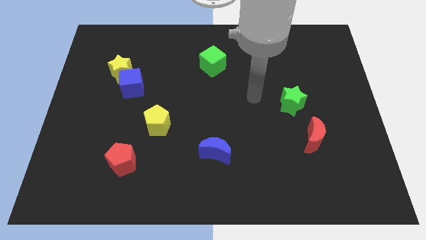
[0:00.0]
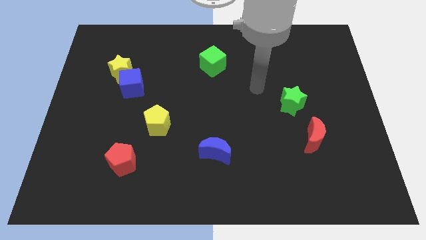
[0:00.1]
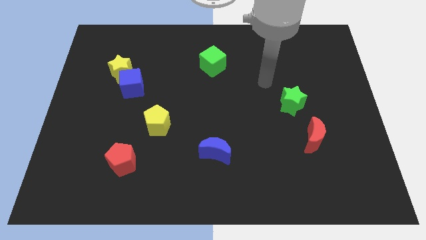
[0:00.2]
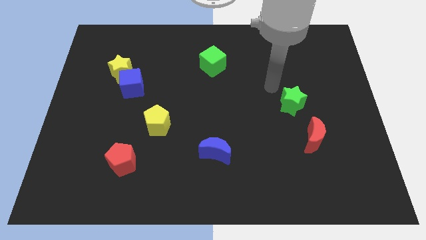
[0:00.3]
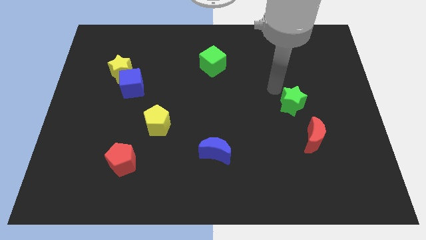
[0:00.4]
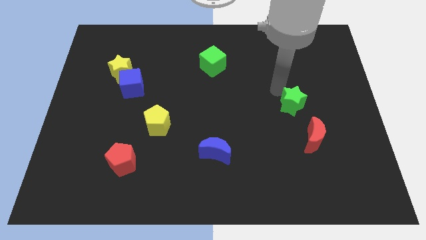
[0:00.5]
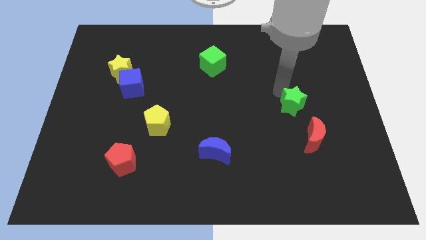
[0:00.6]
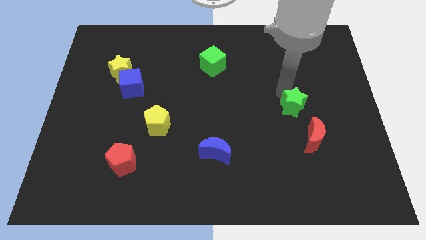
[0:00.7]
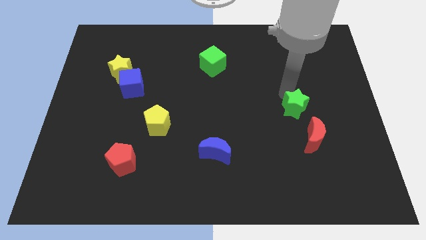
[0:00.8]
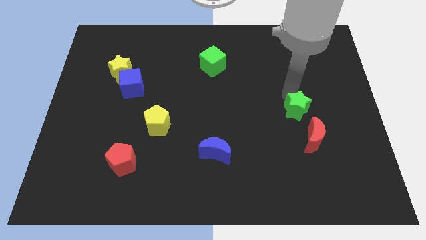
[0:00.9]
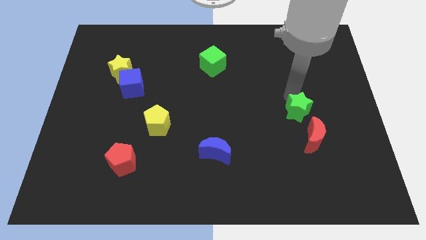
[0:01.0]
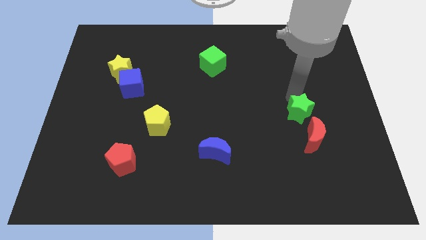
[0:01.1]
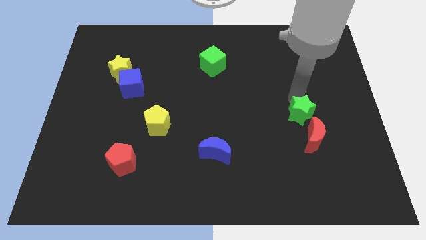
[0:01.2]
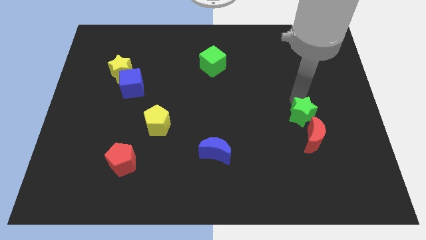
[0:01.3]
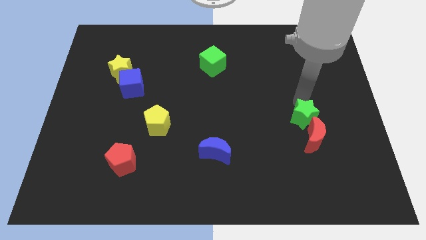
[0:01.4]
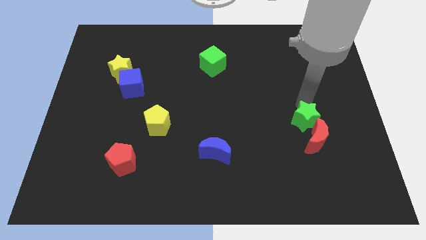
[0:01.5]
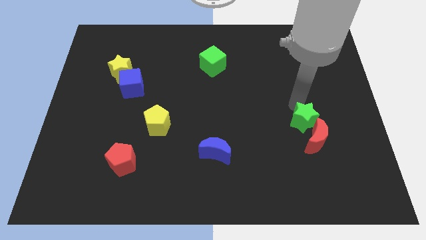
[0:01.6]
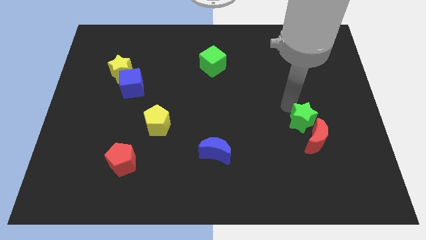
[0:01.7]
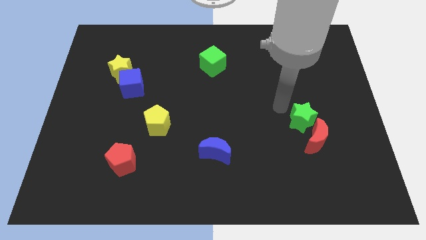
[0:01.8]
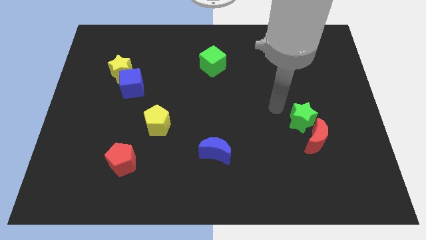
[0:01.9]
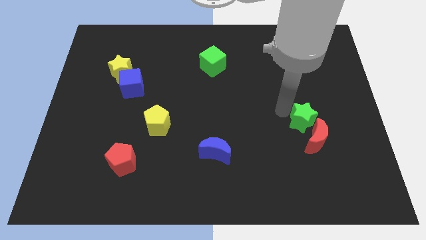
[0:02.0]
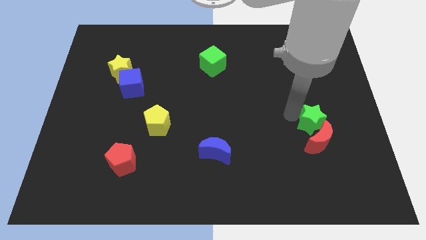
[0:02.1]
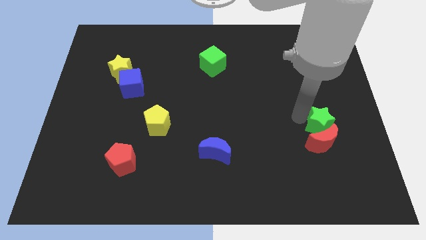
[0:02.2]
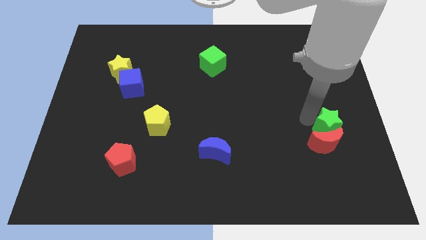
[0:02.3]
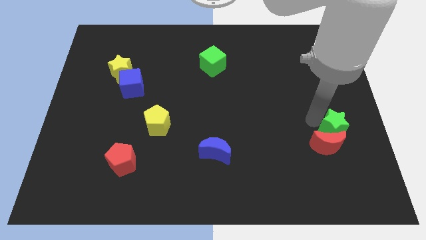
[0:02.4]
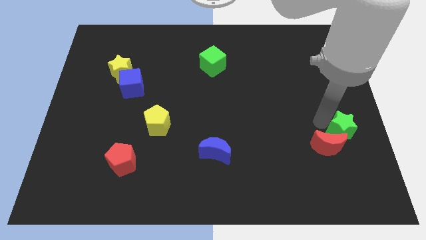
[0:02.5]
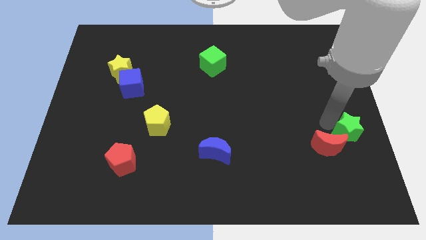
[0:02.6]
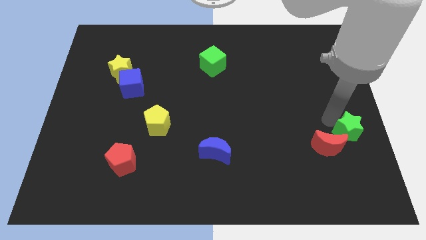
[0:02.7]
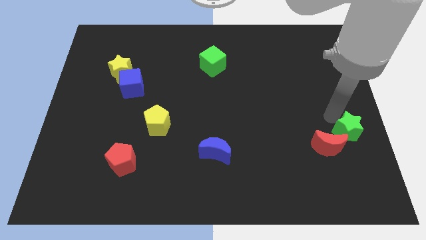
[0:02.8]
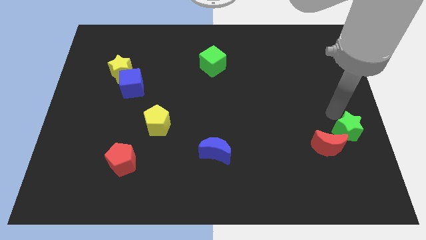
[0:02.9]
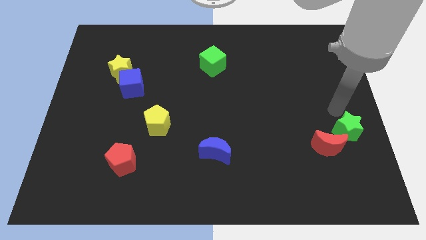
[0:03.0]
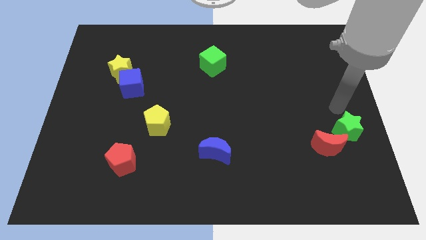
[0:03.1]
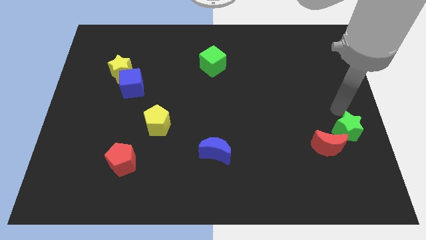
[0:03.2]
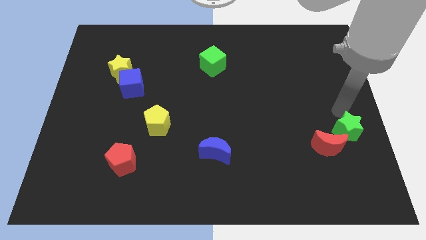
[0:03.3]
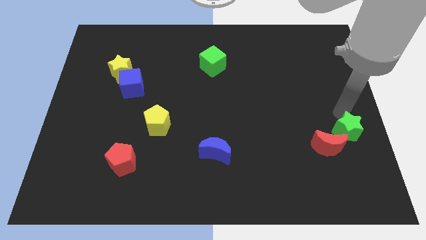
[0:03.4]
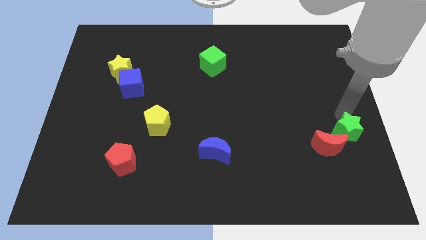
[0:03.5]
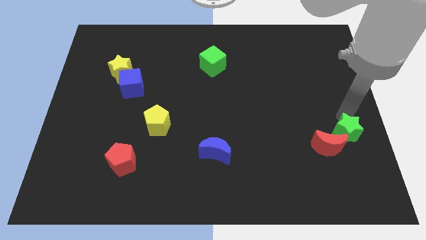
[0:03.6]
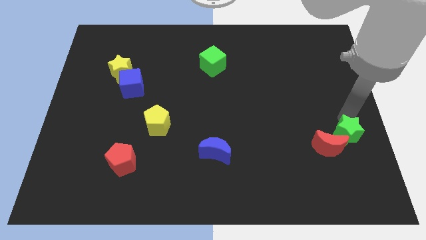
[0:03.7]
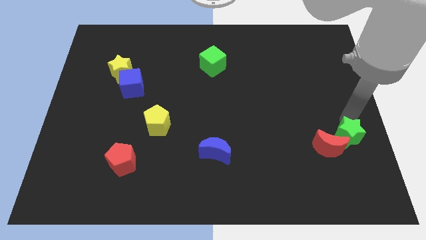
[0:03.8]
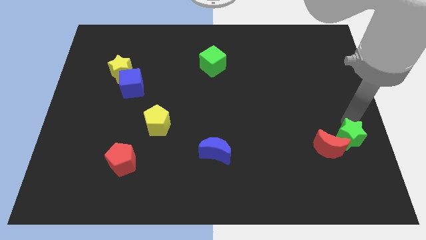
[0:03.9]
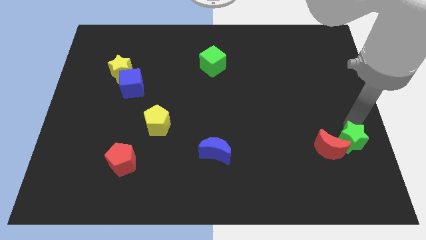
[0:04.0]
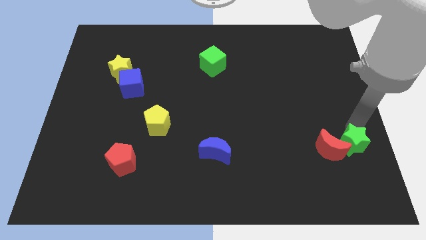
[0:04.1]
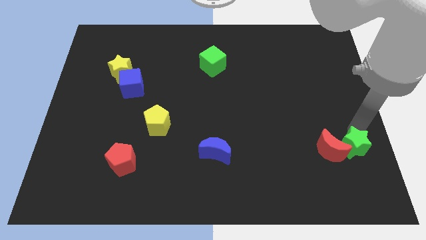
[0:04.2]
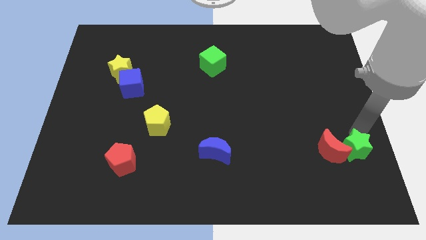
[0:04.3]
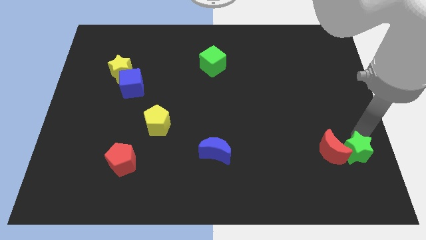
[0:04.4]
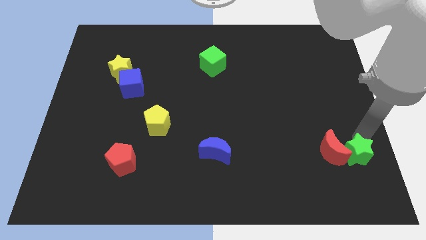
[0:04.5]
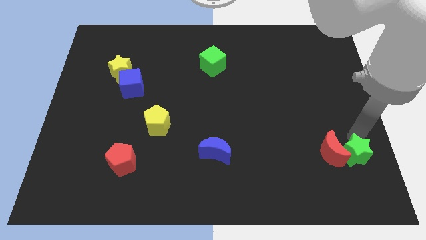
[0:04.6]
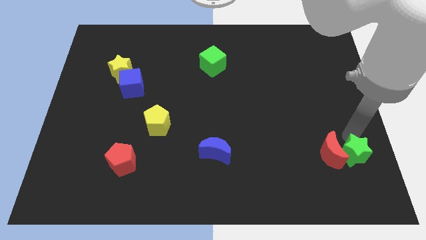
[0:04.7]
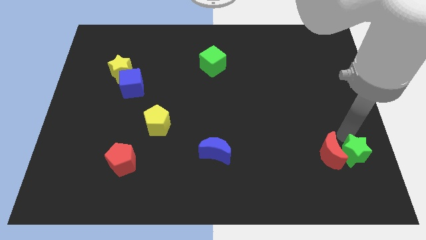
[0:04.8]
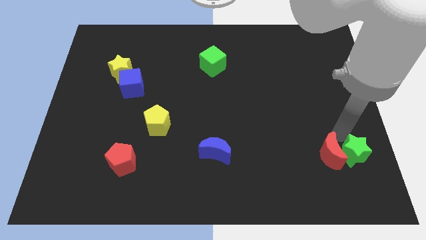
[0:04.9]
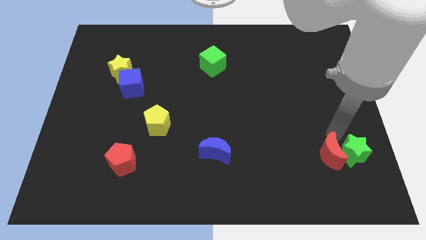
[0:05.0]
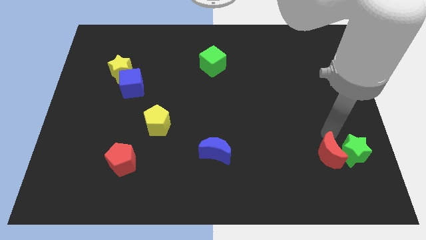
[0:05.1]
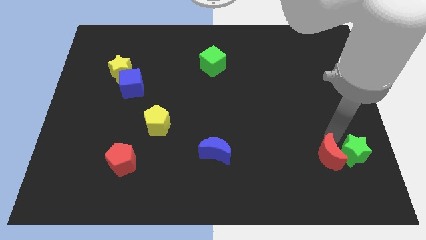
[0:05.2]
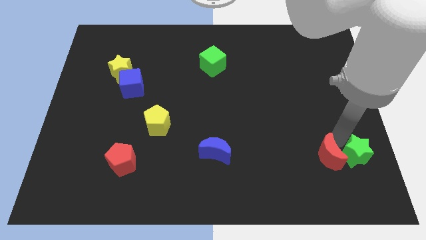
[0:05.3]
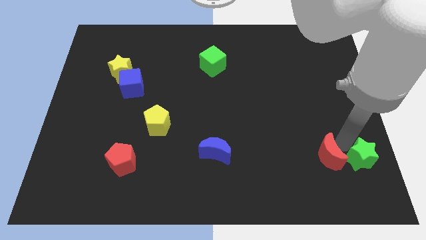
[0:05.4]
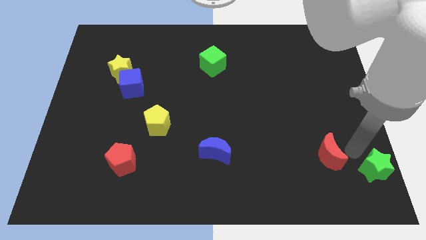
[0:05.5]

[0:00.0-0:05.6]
move the green star to the bottom right
